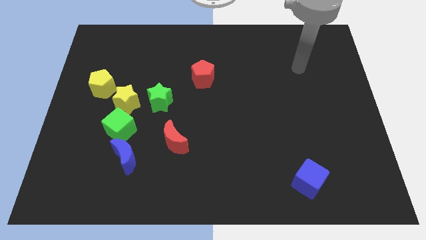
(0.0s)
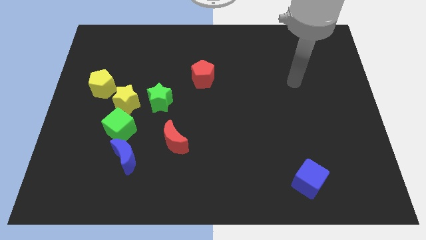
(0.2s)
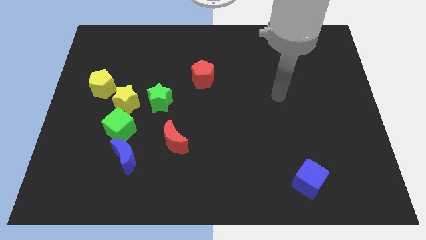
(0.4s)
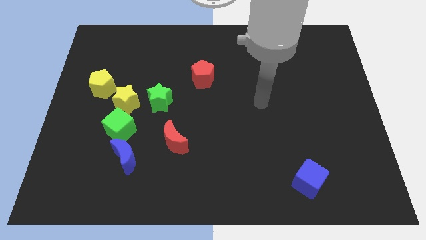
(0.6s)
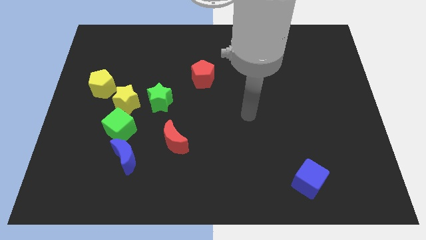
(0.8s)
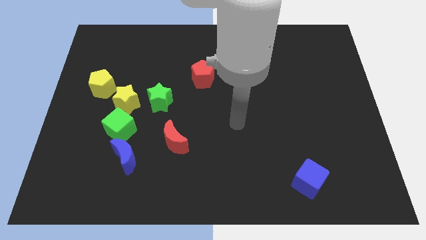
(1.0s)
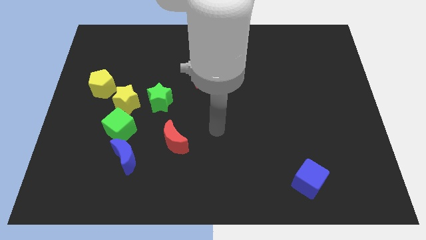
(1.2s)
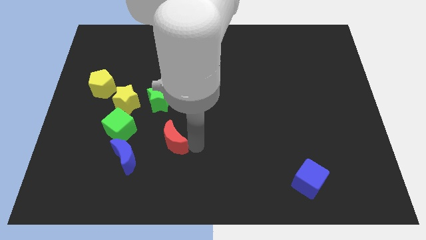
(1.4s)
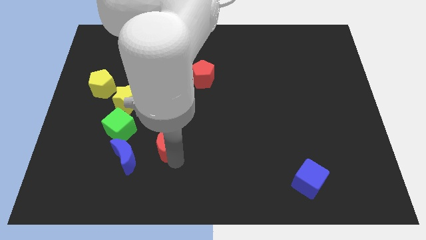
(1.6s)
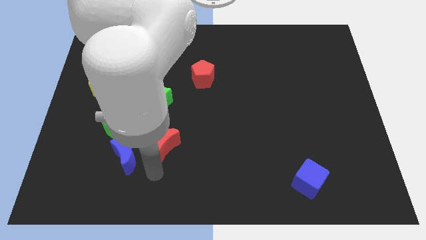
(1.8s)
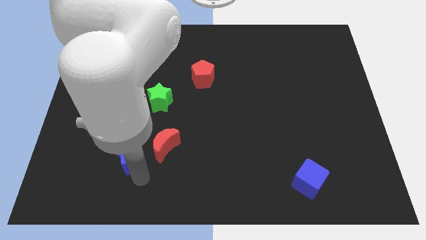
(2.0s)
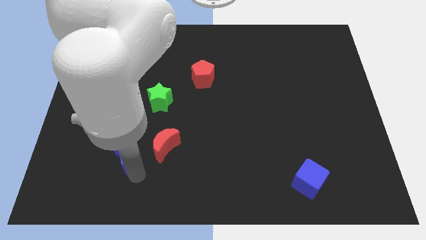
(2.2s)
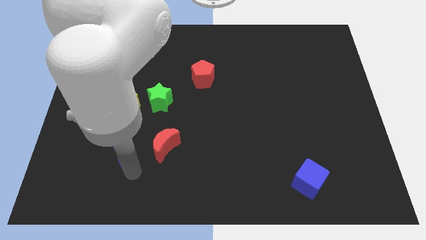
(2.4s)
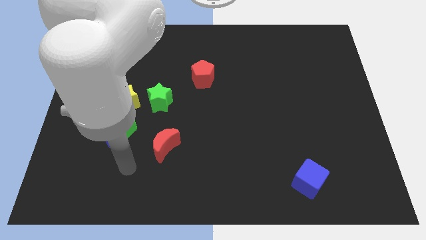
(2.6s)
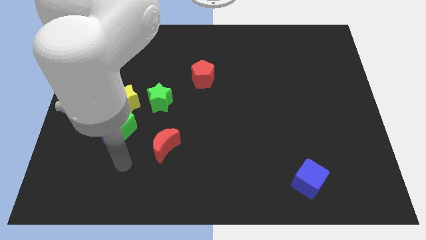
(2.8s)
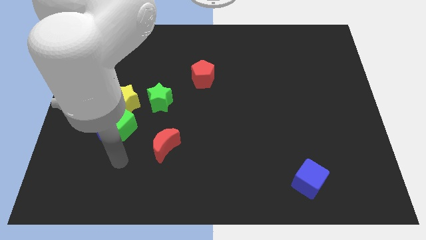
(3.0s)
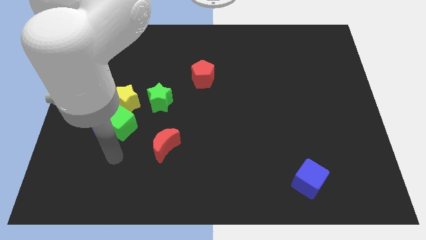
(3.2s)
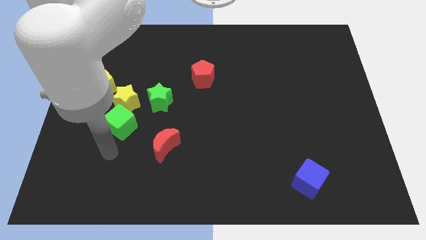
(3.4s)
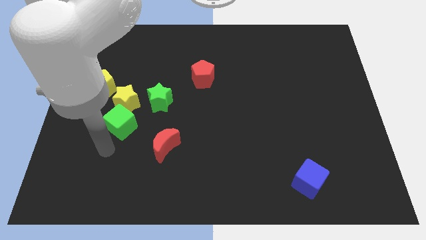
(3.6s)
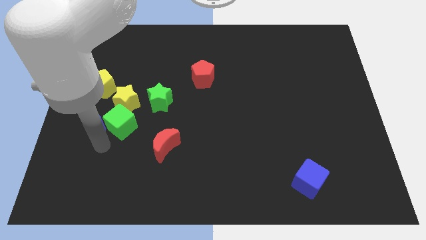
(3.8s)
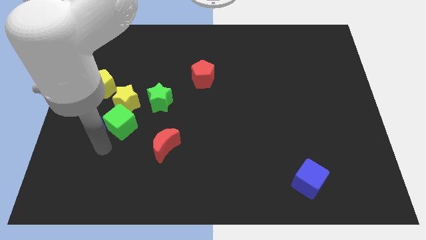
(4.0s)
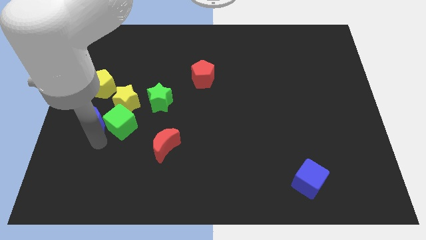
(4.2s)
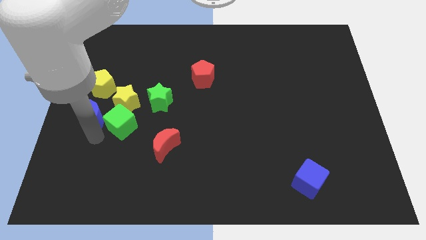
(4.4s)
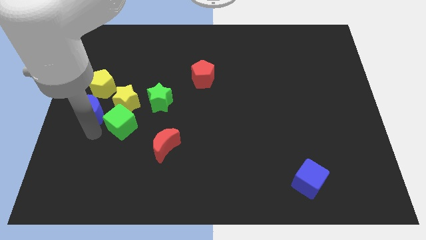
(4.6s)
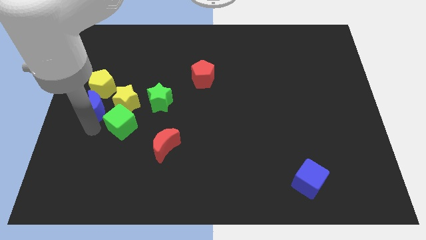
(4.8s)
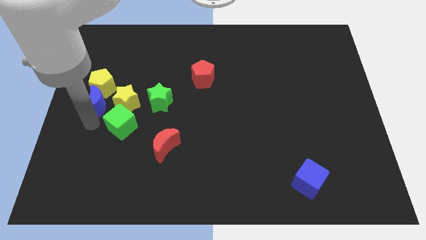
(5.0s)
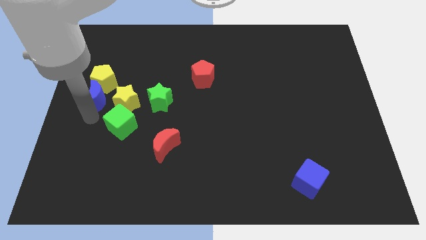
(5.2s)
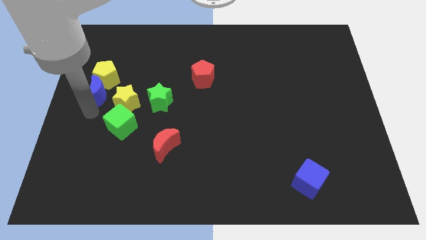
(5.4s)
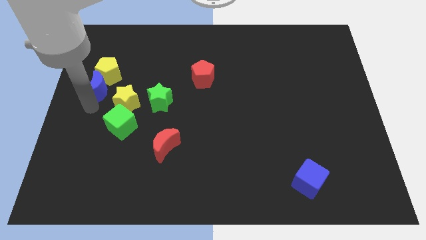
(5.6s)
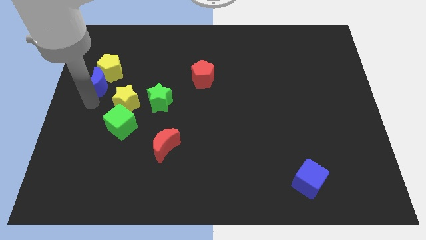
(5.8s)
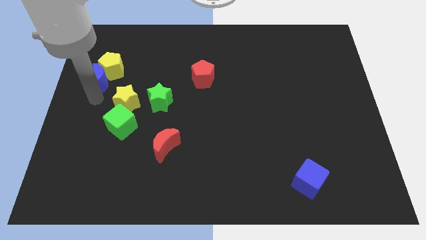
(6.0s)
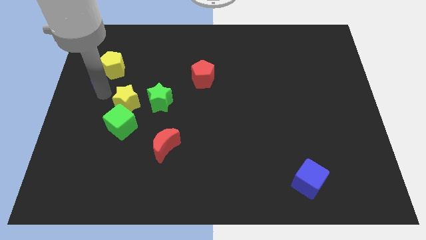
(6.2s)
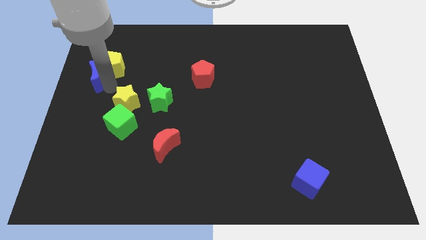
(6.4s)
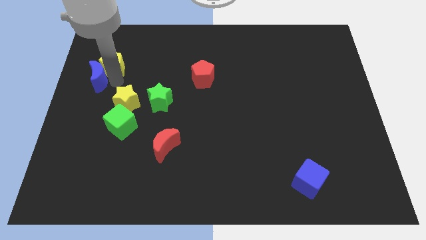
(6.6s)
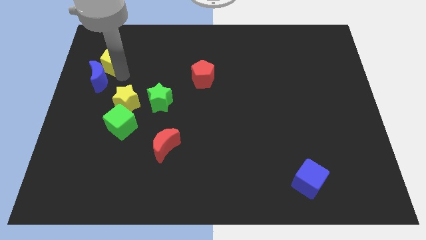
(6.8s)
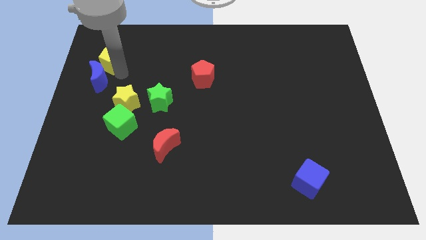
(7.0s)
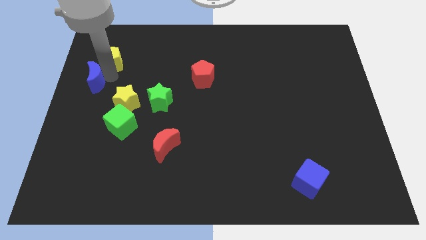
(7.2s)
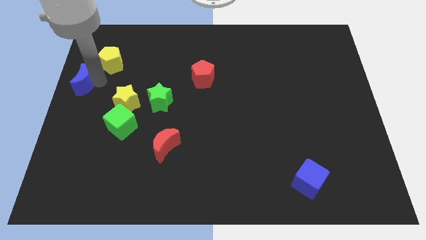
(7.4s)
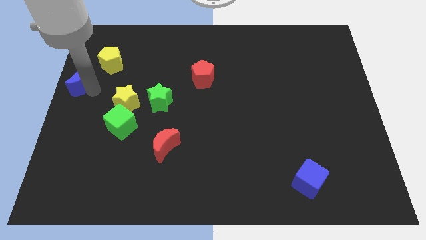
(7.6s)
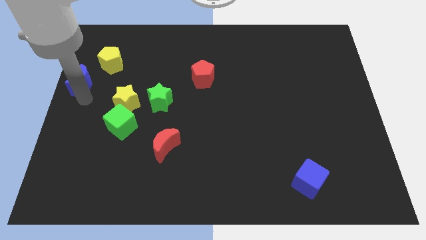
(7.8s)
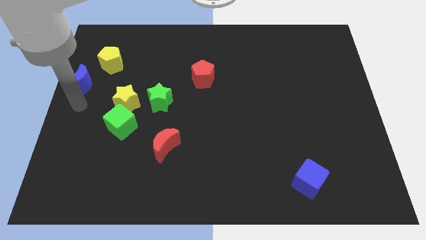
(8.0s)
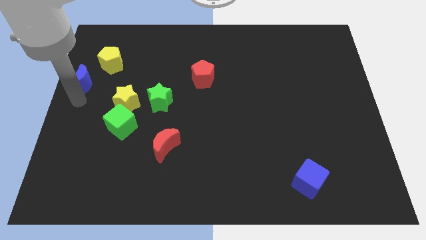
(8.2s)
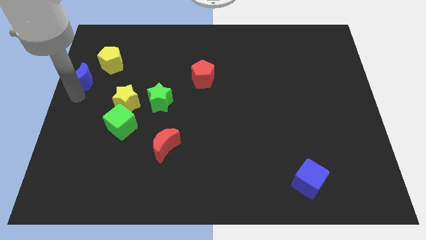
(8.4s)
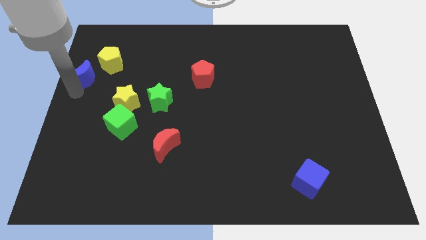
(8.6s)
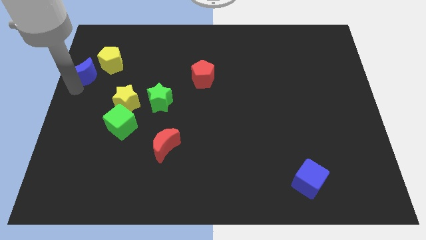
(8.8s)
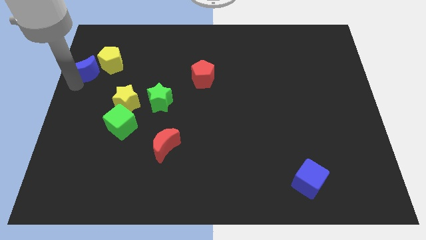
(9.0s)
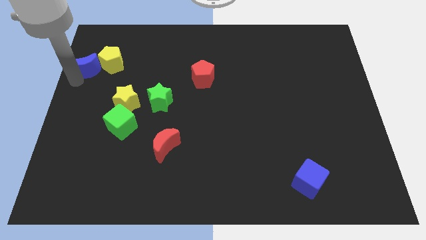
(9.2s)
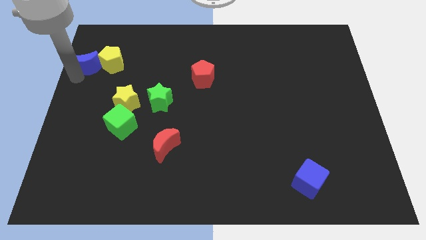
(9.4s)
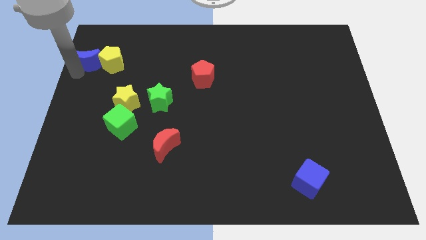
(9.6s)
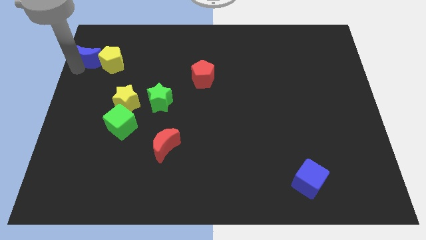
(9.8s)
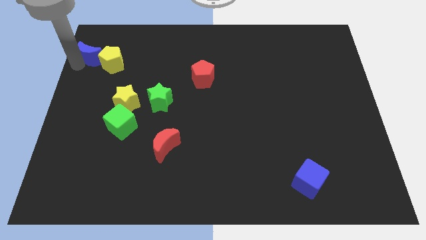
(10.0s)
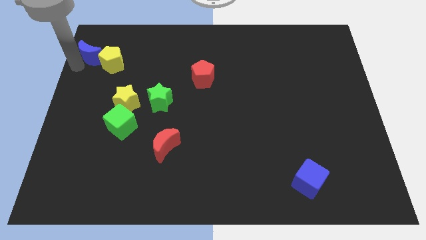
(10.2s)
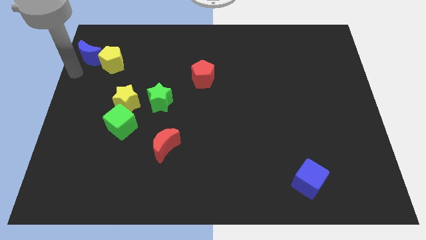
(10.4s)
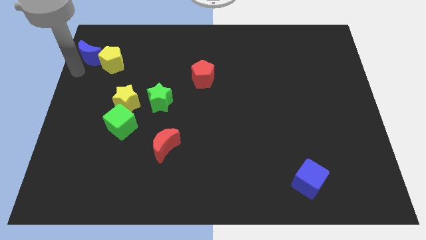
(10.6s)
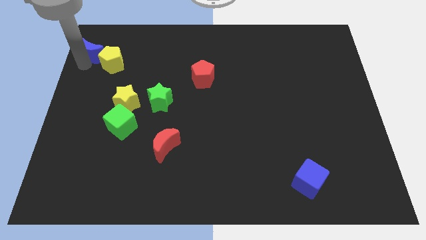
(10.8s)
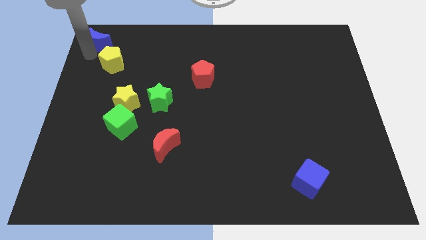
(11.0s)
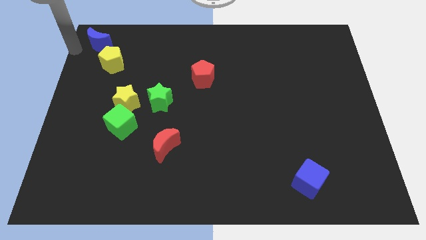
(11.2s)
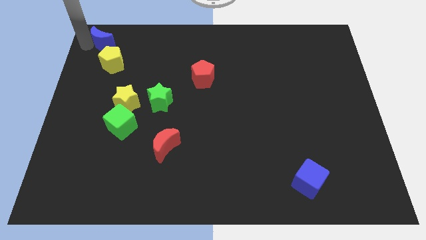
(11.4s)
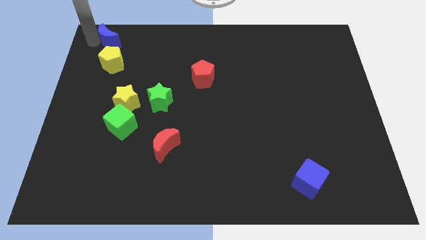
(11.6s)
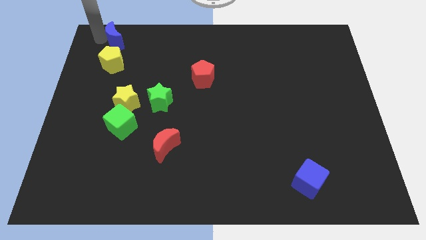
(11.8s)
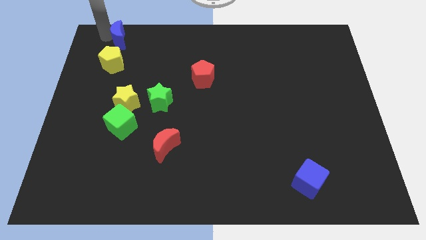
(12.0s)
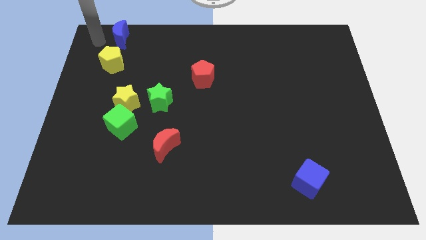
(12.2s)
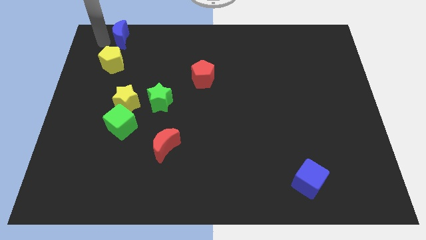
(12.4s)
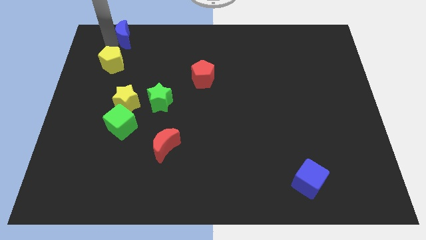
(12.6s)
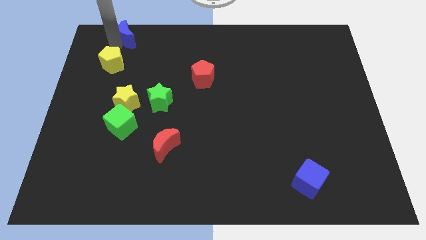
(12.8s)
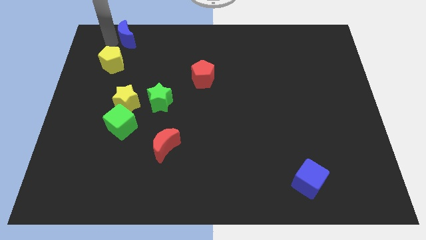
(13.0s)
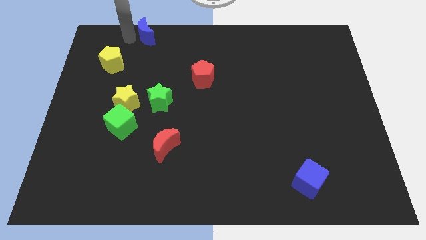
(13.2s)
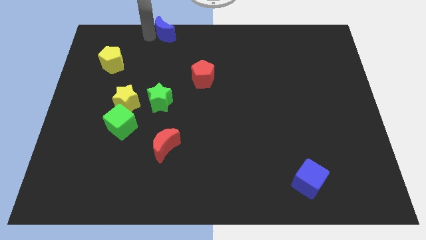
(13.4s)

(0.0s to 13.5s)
move the blue moon to the top

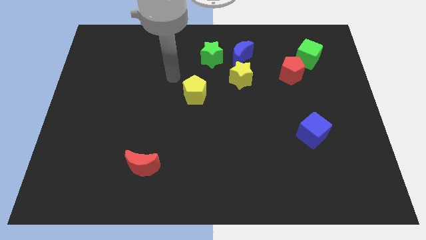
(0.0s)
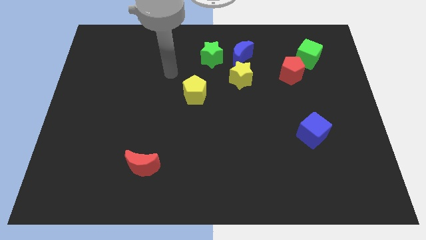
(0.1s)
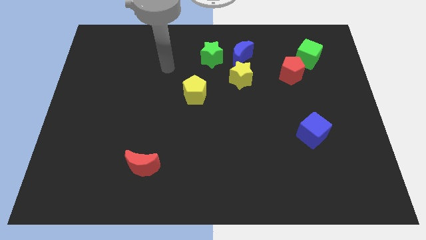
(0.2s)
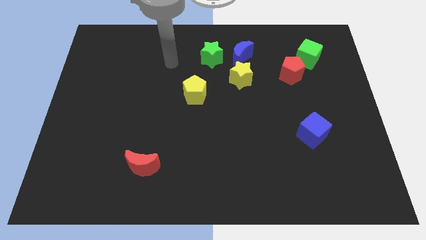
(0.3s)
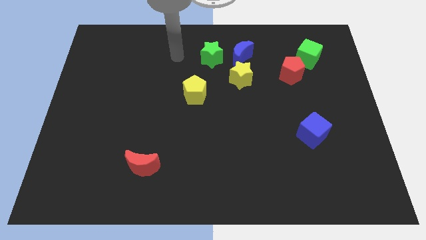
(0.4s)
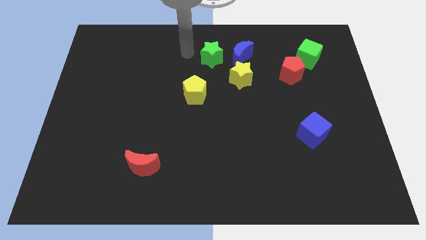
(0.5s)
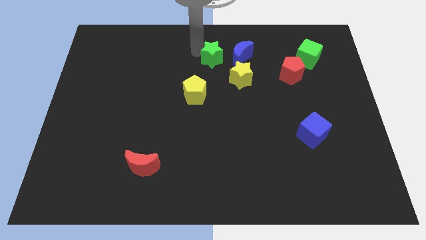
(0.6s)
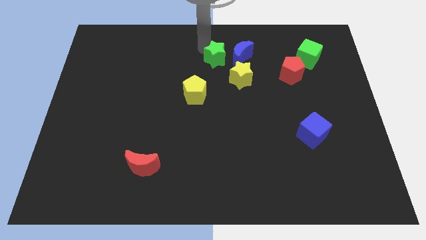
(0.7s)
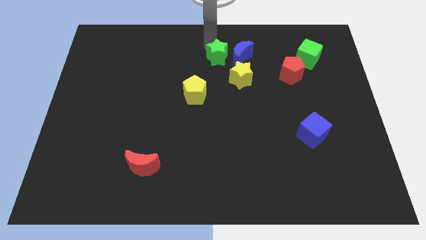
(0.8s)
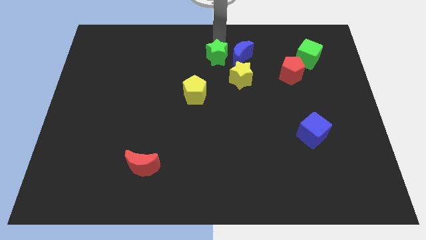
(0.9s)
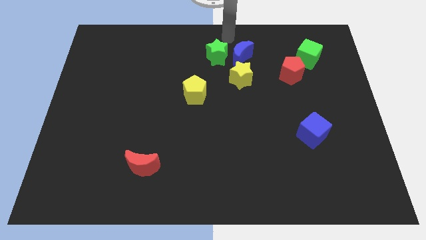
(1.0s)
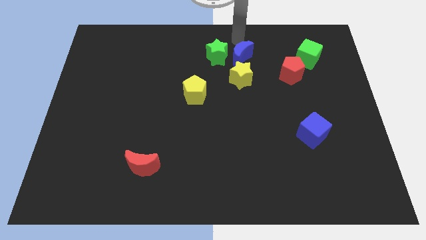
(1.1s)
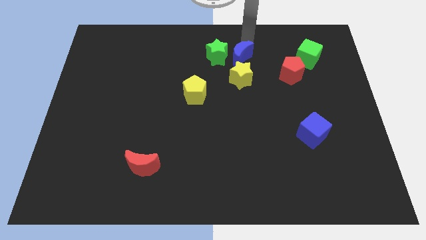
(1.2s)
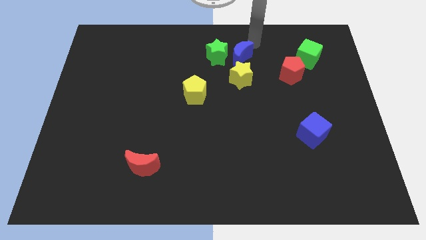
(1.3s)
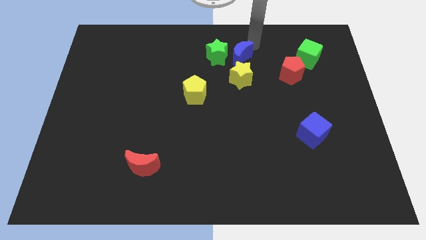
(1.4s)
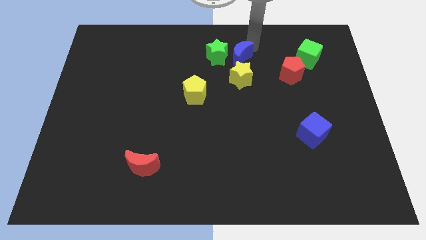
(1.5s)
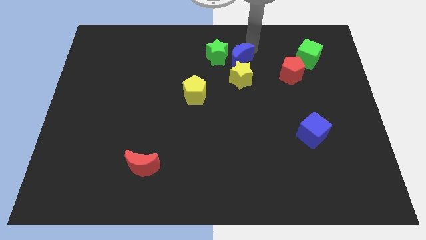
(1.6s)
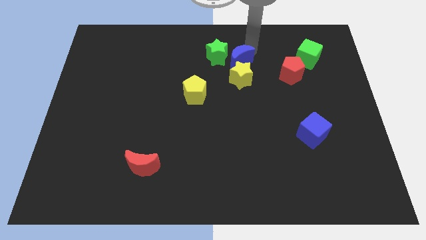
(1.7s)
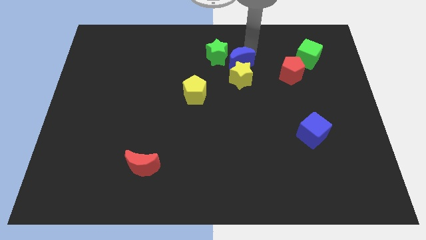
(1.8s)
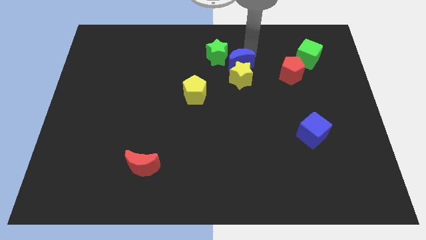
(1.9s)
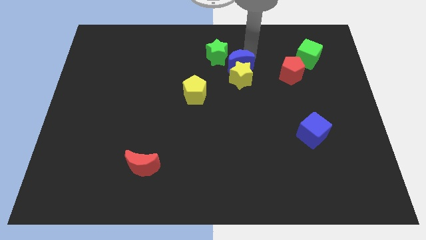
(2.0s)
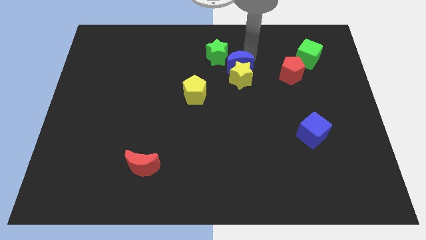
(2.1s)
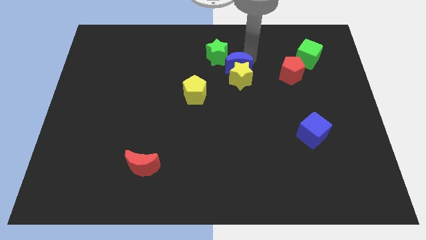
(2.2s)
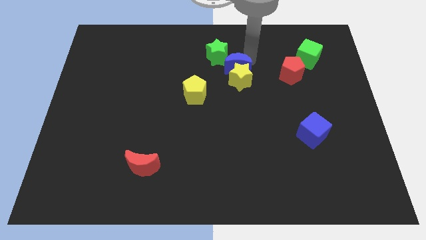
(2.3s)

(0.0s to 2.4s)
slide the blue moon to the middle
